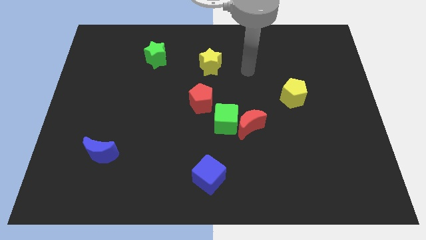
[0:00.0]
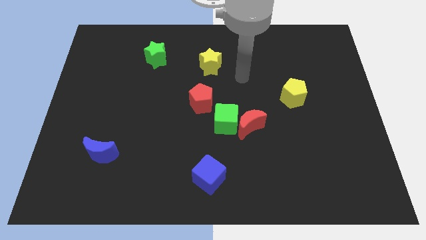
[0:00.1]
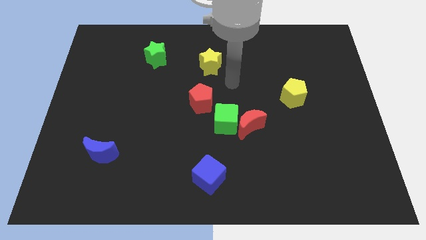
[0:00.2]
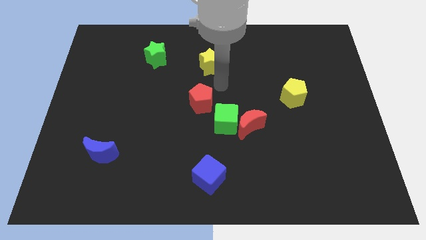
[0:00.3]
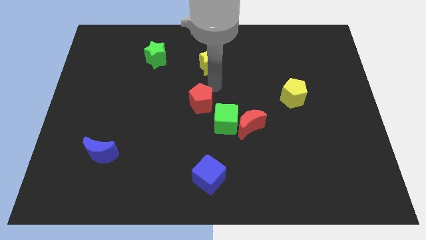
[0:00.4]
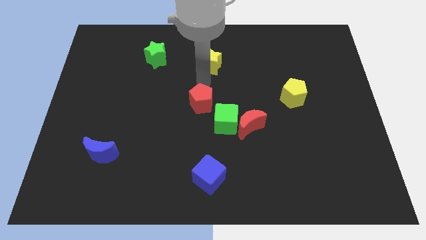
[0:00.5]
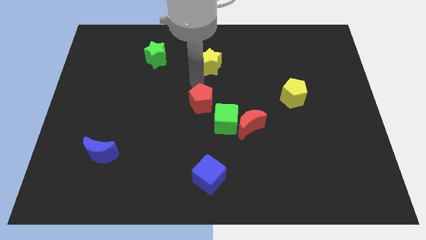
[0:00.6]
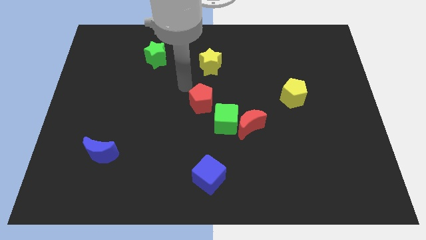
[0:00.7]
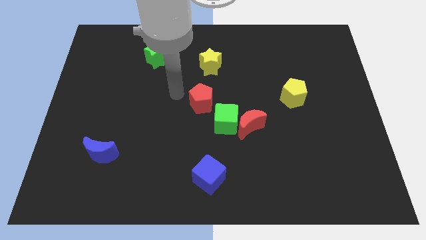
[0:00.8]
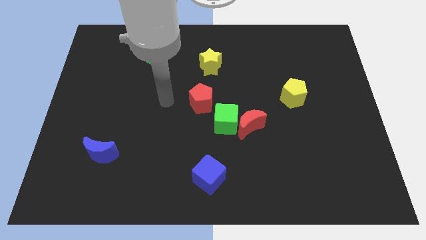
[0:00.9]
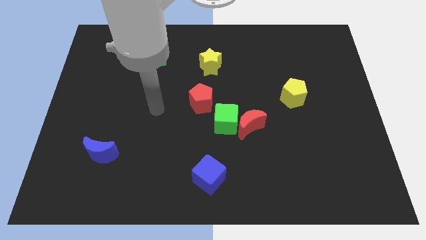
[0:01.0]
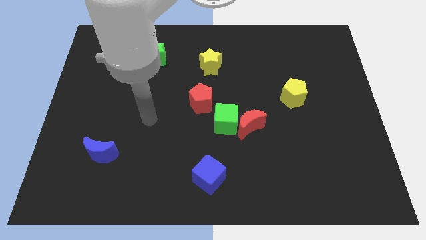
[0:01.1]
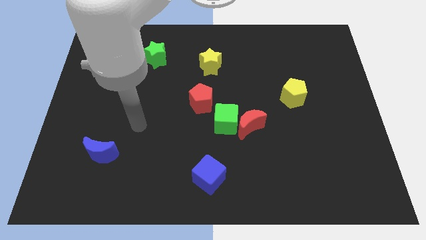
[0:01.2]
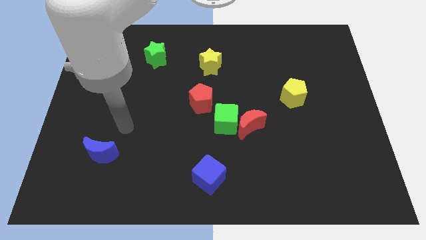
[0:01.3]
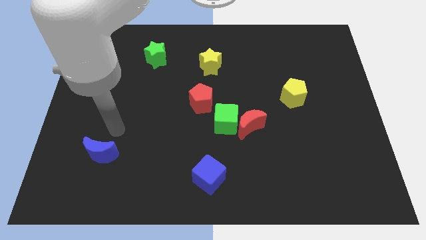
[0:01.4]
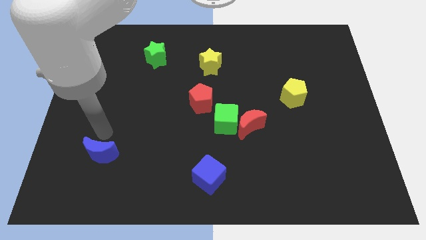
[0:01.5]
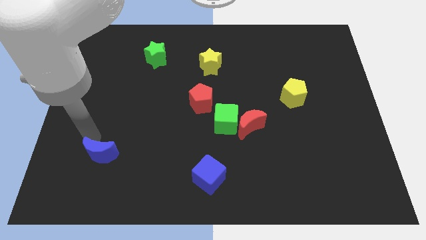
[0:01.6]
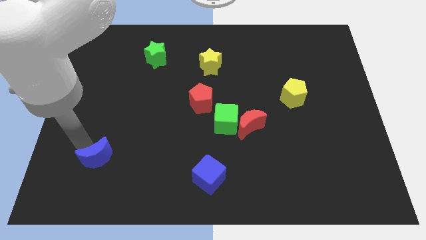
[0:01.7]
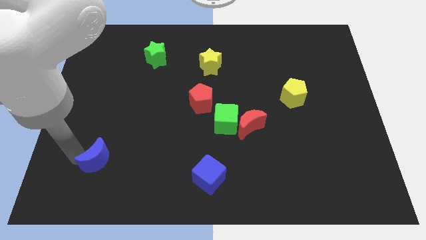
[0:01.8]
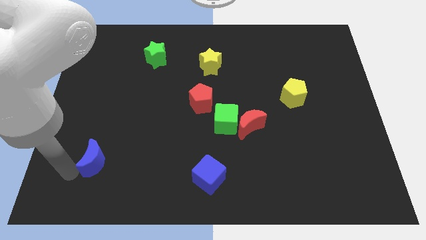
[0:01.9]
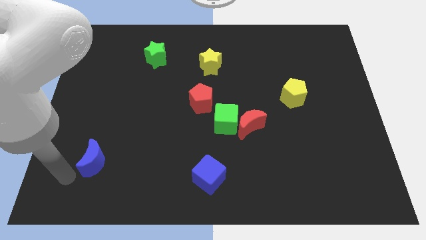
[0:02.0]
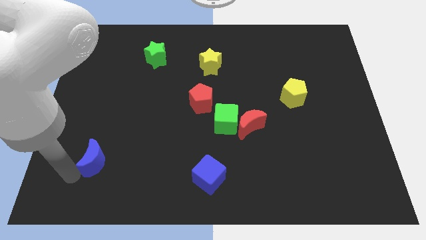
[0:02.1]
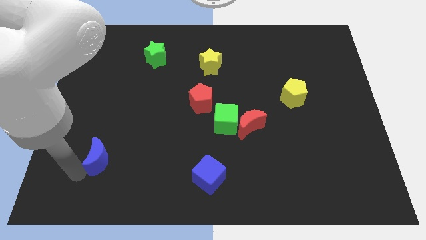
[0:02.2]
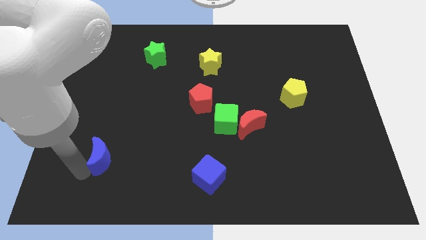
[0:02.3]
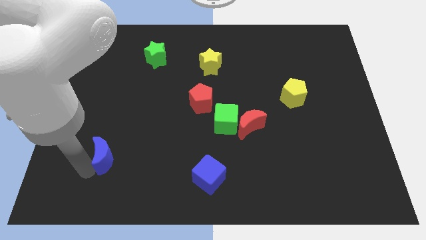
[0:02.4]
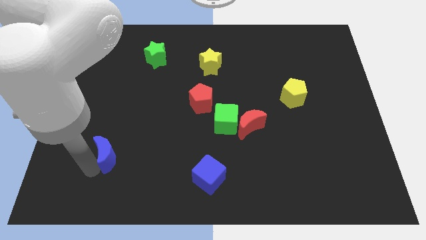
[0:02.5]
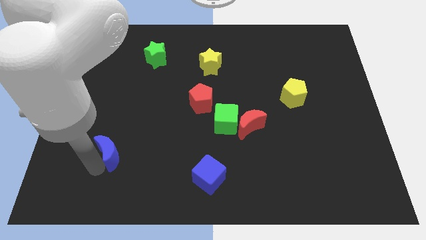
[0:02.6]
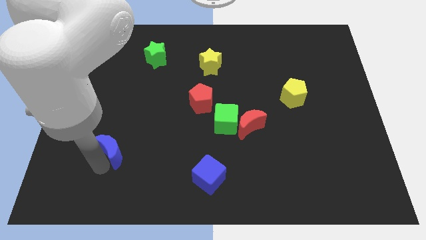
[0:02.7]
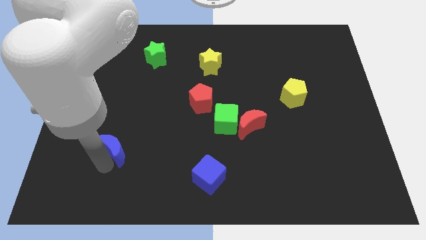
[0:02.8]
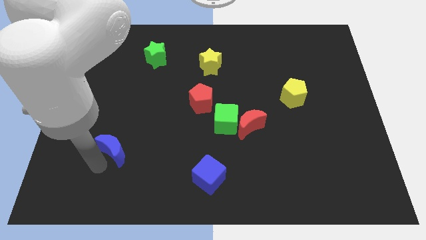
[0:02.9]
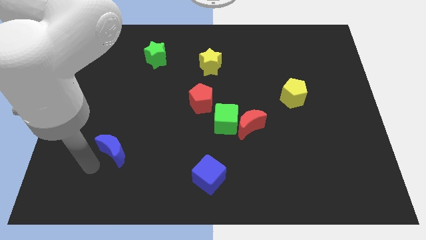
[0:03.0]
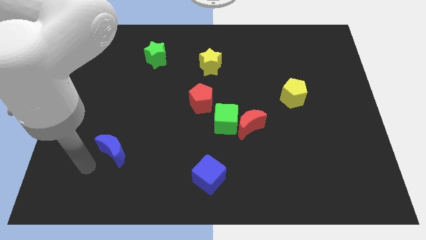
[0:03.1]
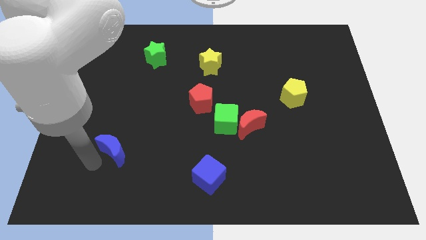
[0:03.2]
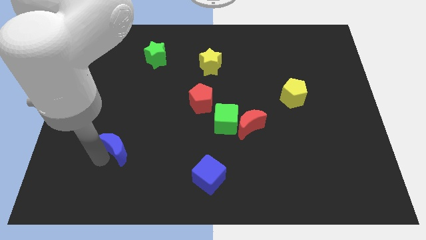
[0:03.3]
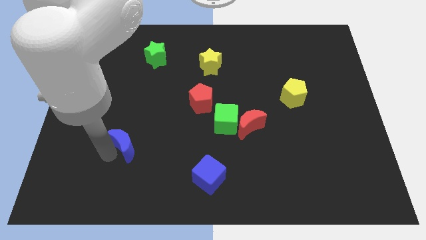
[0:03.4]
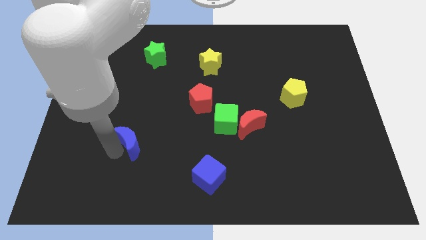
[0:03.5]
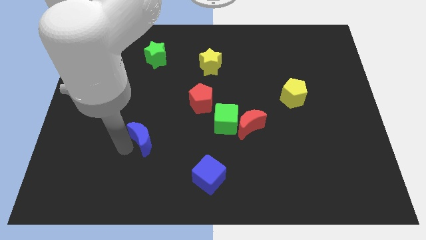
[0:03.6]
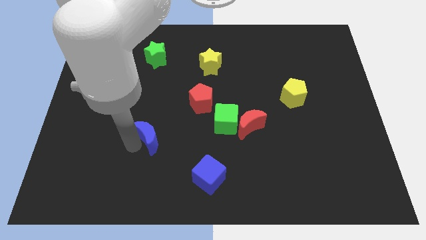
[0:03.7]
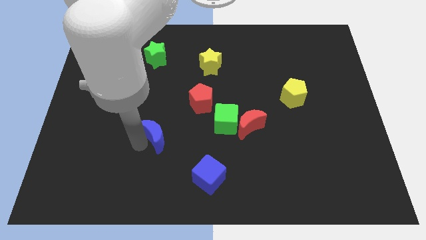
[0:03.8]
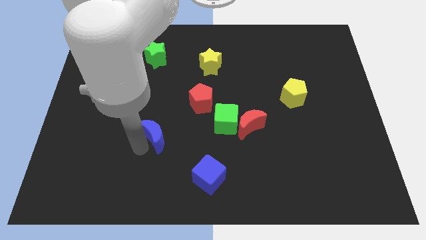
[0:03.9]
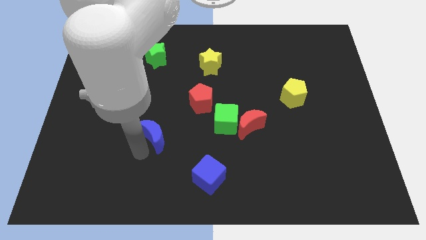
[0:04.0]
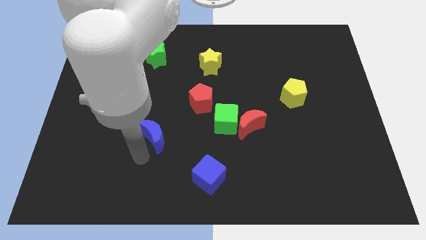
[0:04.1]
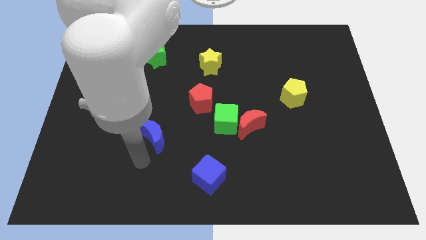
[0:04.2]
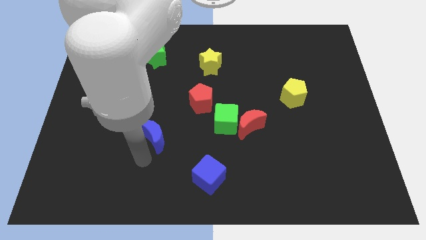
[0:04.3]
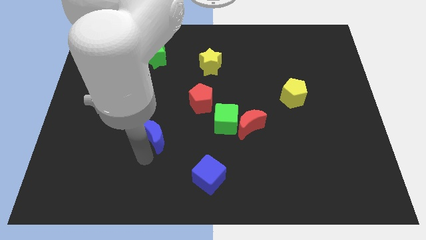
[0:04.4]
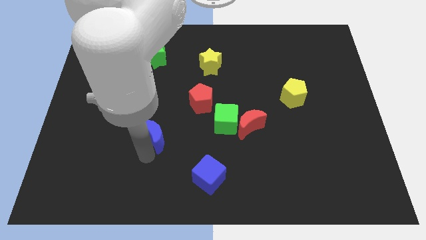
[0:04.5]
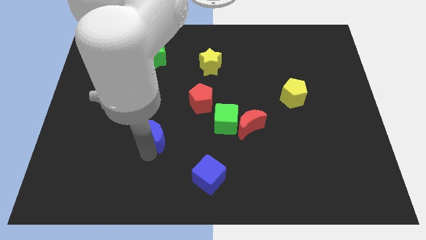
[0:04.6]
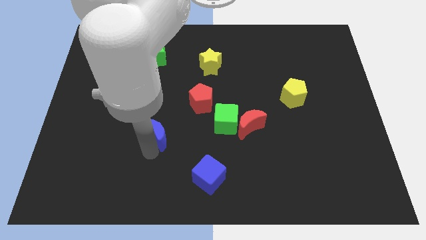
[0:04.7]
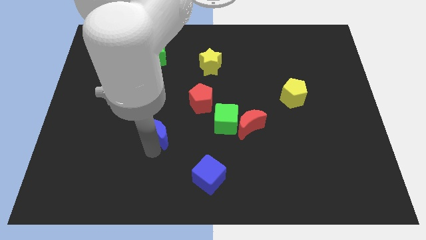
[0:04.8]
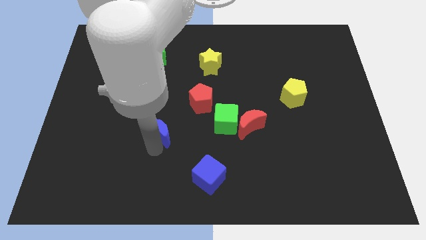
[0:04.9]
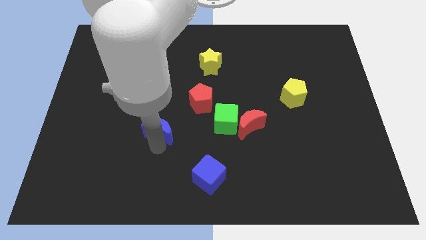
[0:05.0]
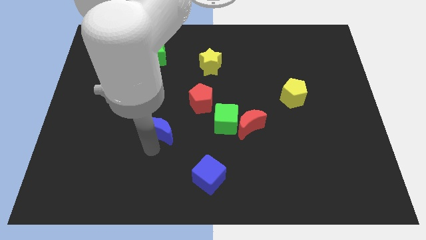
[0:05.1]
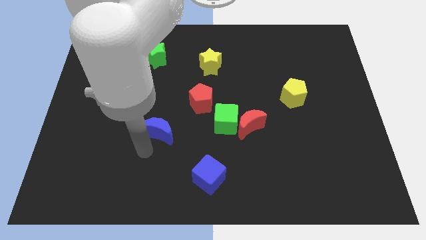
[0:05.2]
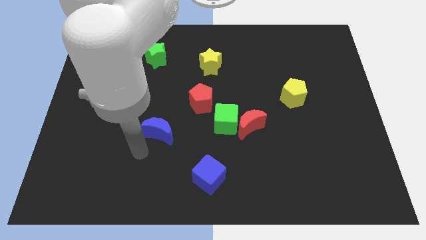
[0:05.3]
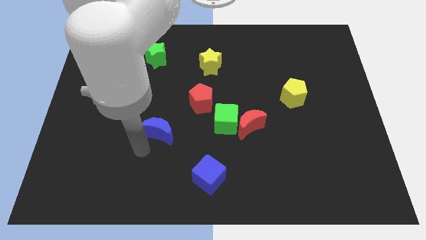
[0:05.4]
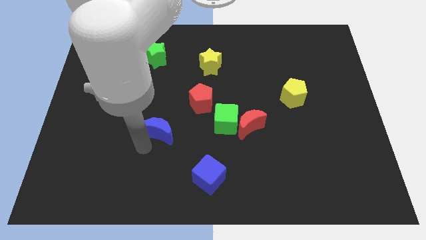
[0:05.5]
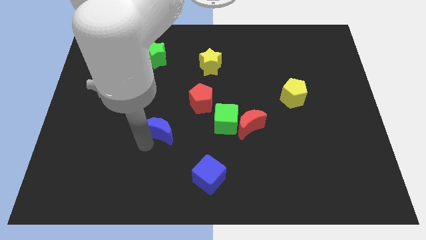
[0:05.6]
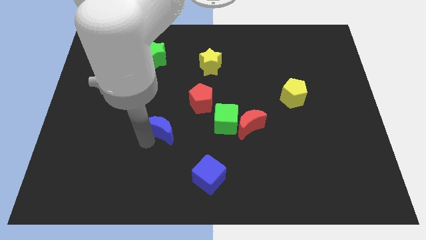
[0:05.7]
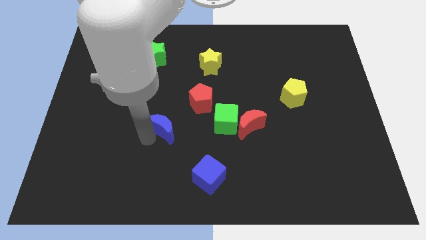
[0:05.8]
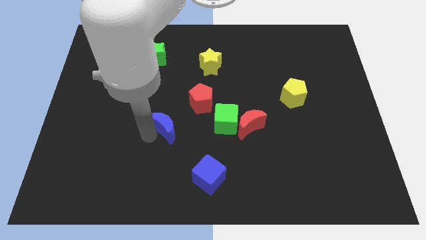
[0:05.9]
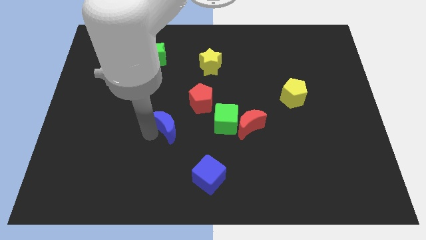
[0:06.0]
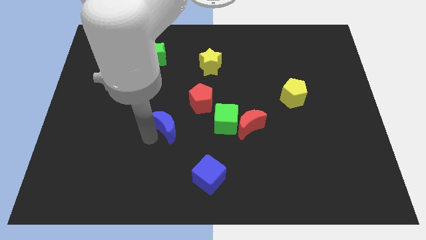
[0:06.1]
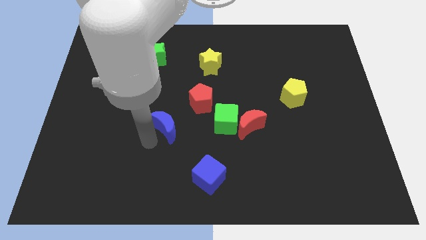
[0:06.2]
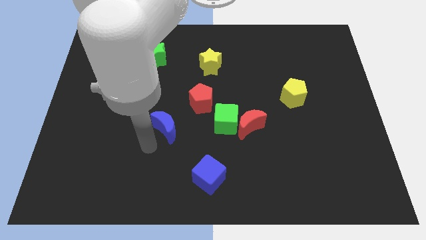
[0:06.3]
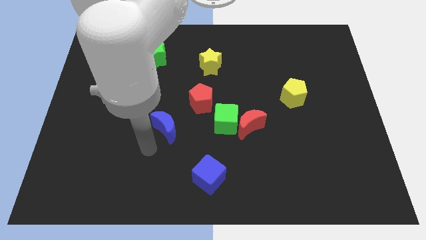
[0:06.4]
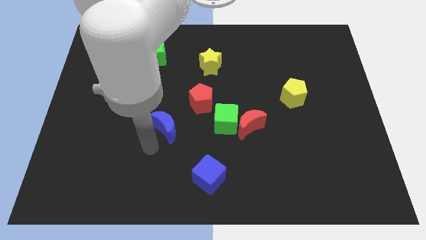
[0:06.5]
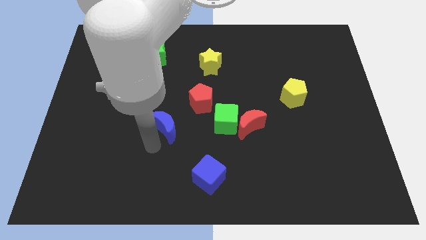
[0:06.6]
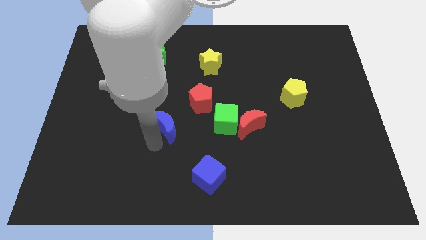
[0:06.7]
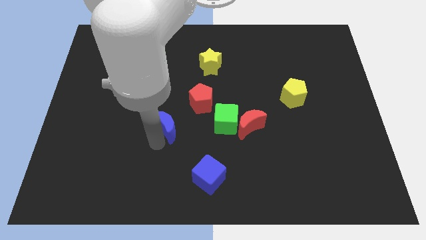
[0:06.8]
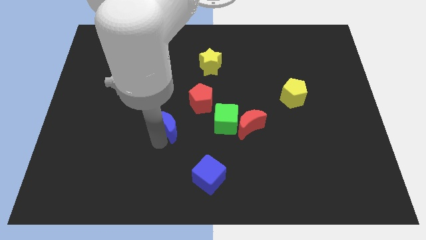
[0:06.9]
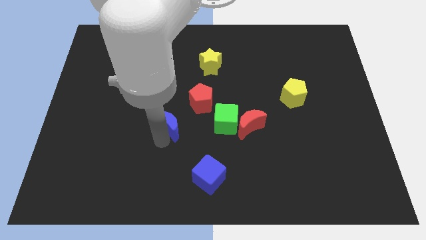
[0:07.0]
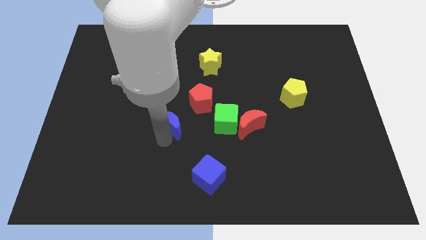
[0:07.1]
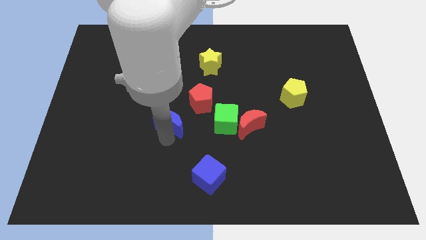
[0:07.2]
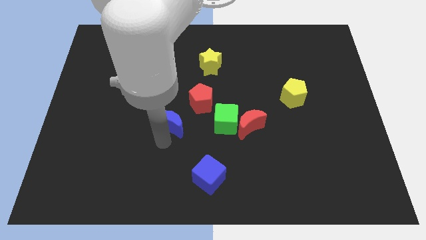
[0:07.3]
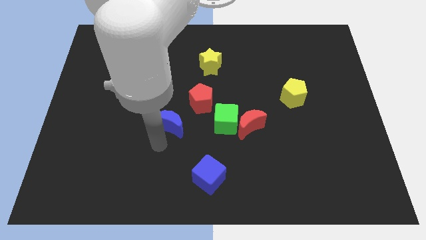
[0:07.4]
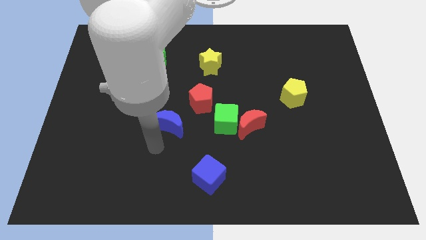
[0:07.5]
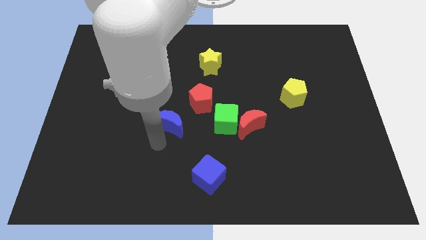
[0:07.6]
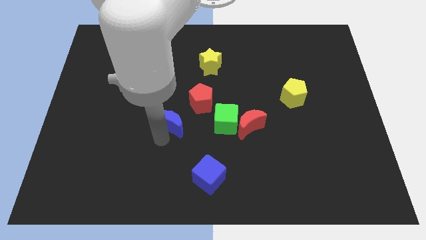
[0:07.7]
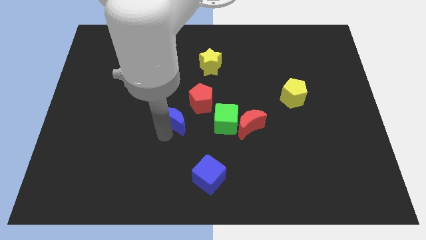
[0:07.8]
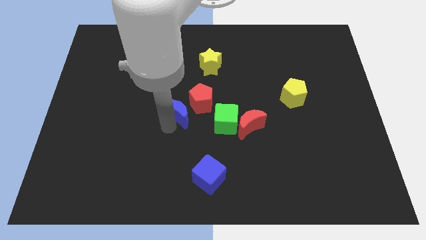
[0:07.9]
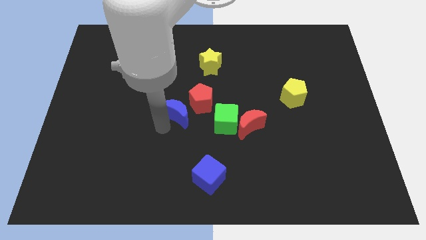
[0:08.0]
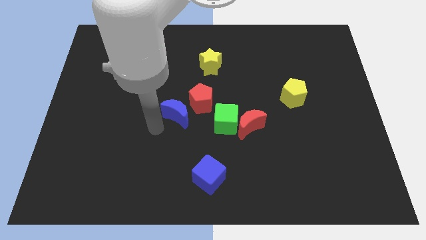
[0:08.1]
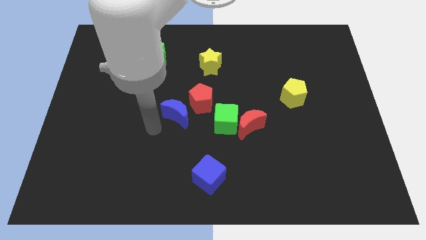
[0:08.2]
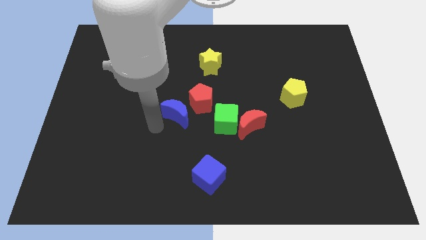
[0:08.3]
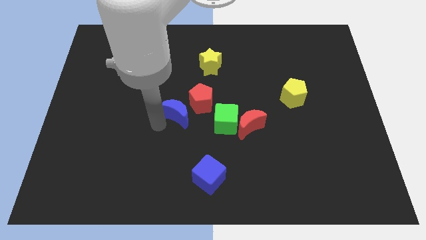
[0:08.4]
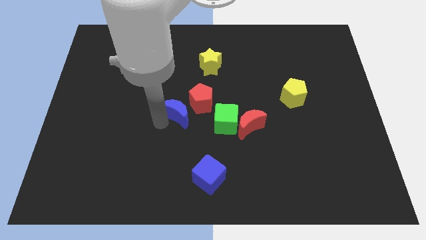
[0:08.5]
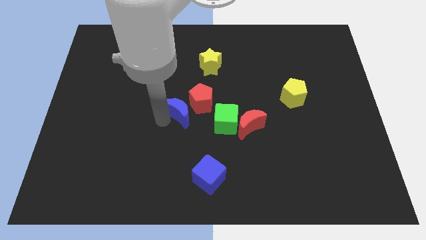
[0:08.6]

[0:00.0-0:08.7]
put the blue moon to the red pentagon
